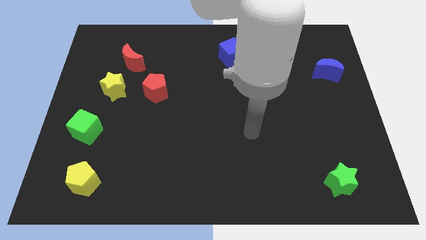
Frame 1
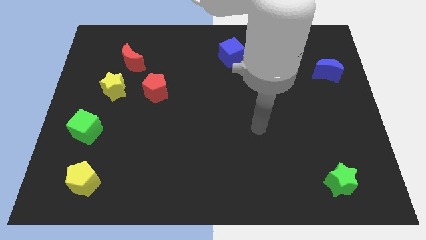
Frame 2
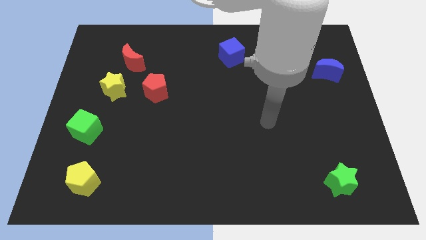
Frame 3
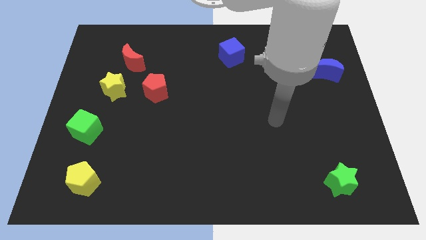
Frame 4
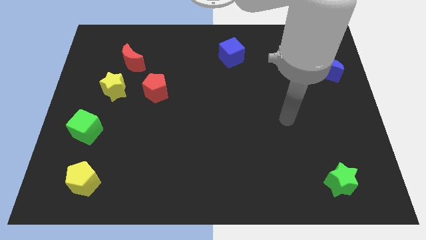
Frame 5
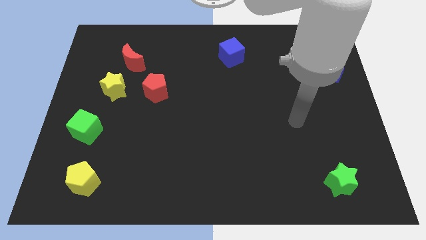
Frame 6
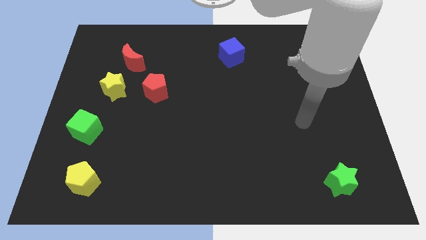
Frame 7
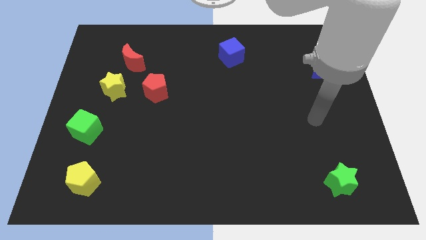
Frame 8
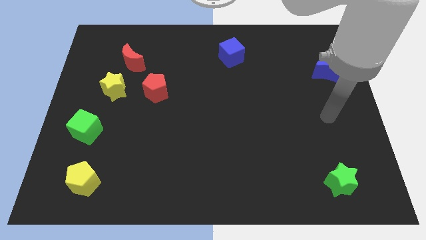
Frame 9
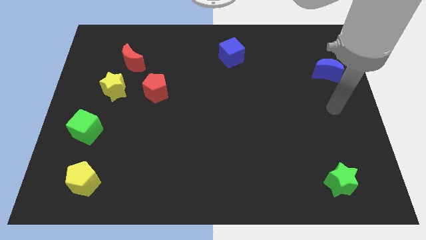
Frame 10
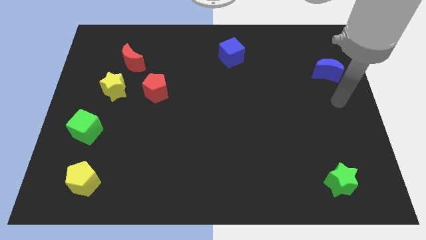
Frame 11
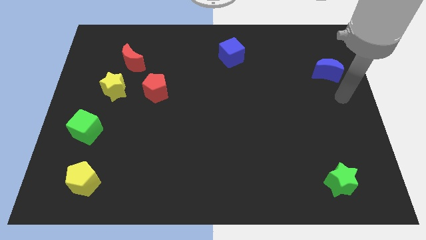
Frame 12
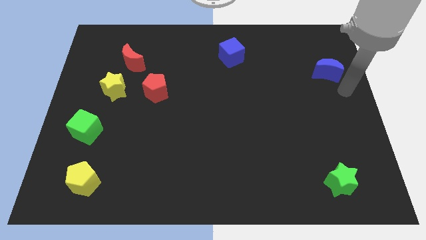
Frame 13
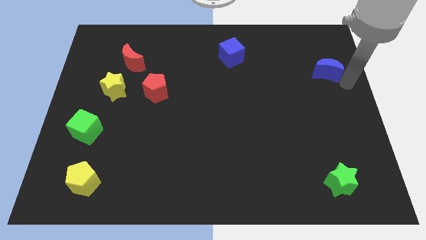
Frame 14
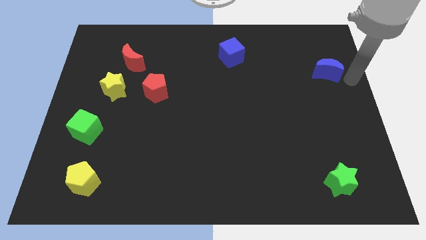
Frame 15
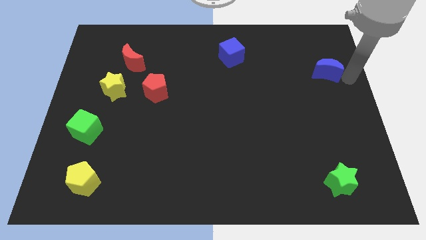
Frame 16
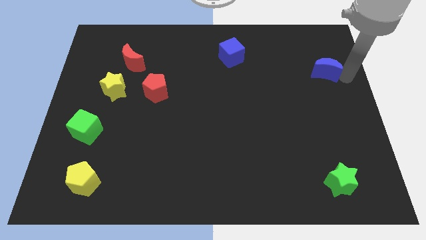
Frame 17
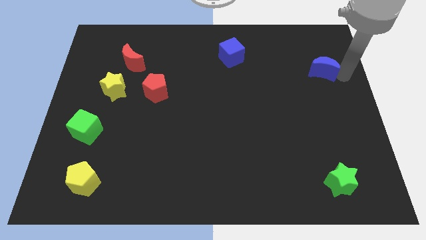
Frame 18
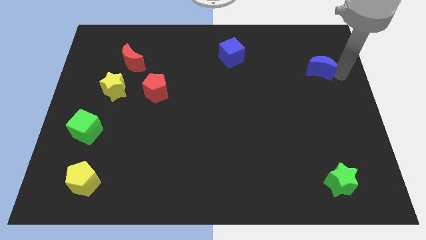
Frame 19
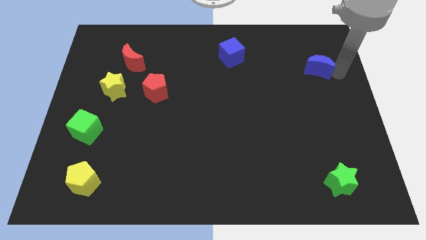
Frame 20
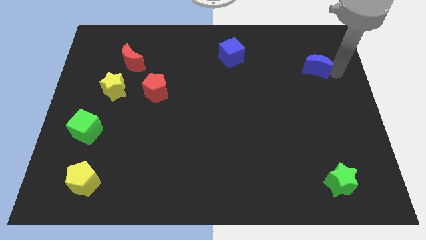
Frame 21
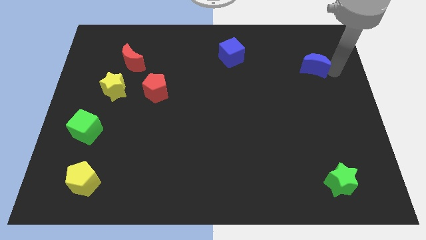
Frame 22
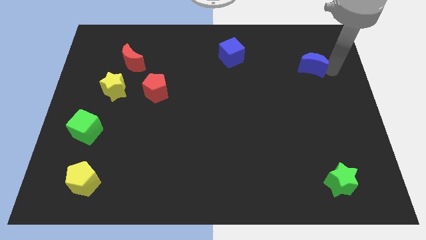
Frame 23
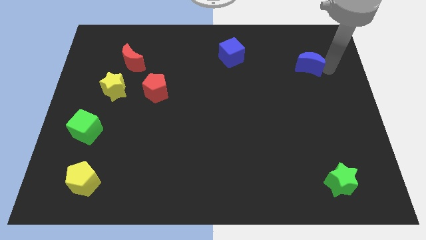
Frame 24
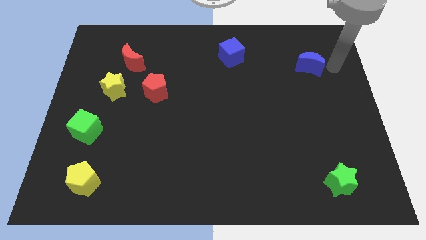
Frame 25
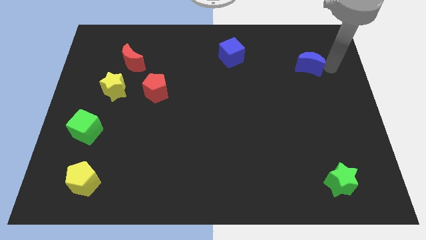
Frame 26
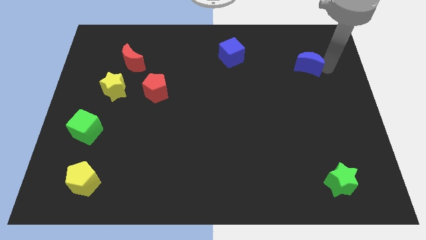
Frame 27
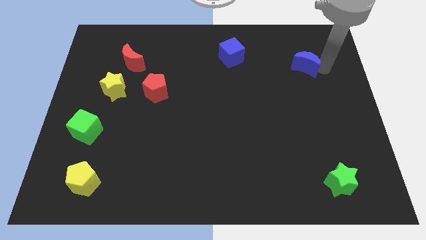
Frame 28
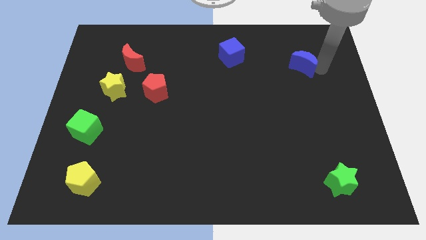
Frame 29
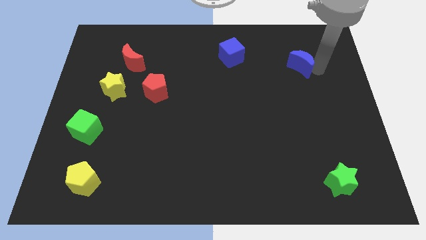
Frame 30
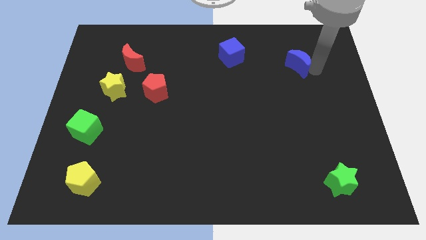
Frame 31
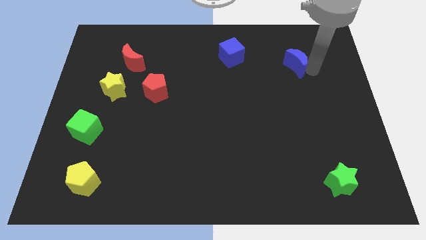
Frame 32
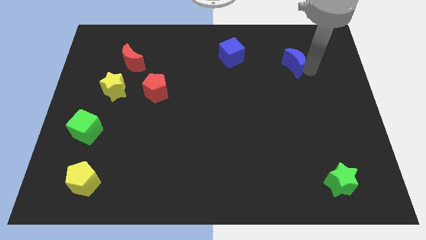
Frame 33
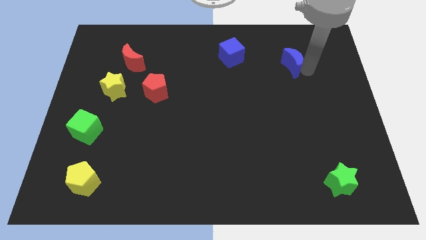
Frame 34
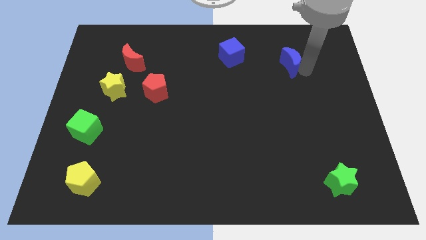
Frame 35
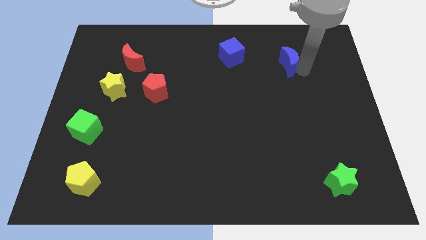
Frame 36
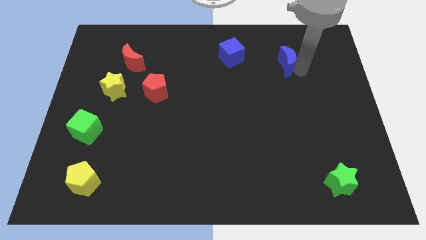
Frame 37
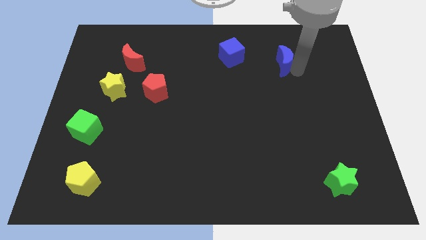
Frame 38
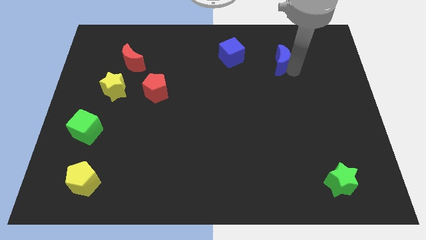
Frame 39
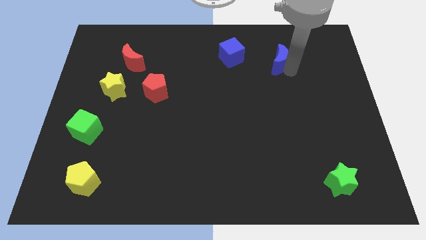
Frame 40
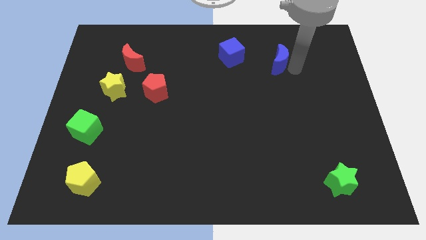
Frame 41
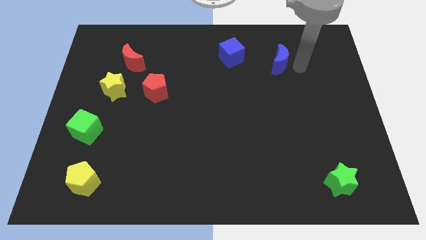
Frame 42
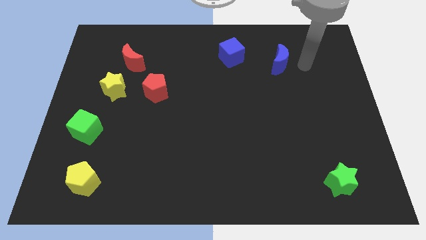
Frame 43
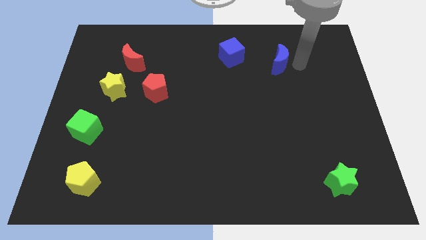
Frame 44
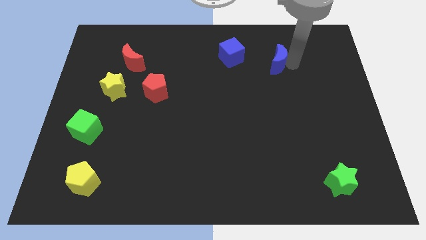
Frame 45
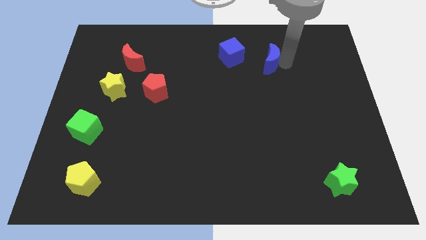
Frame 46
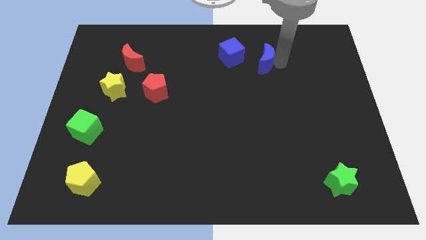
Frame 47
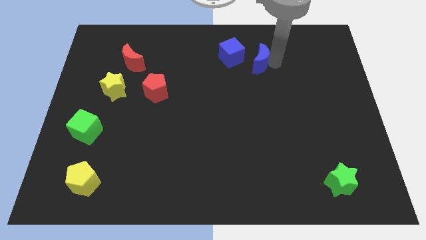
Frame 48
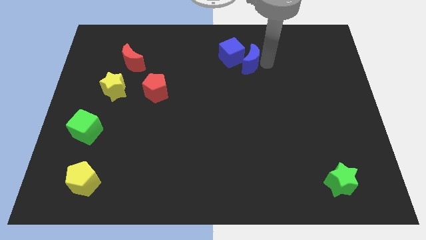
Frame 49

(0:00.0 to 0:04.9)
push the blue moon towards the blue cube

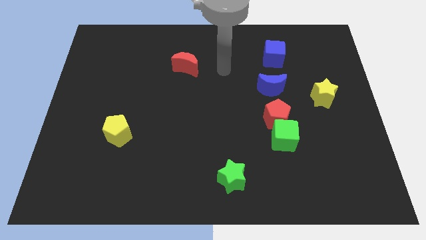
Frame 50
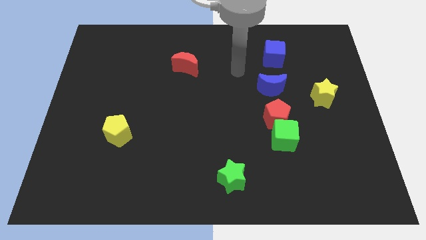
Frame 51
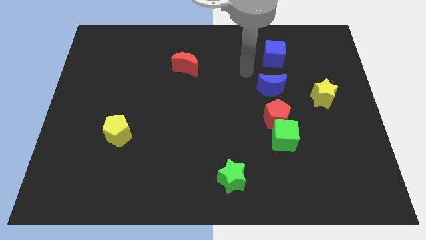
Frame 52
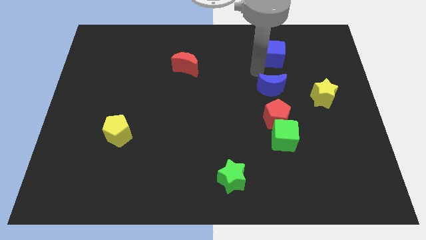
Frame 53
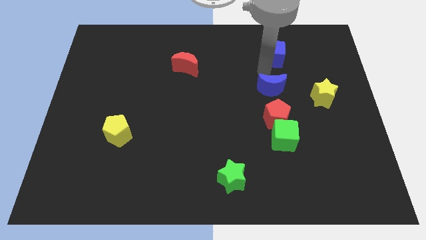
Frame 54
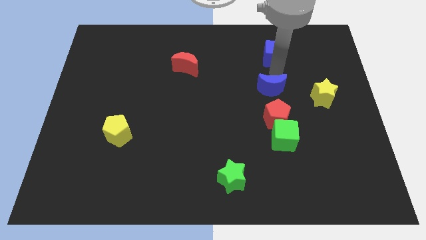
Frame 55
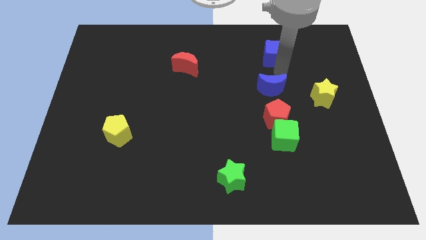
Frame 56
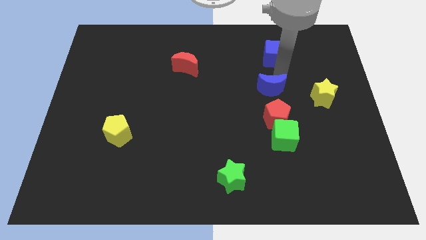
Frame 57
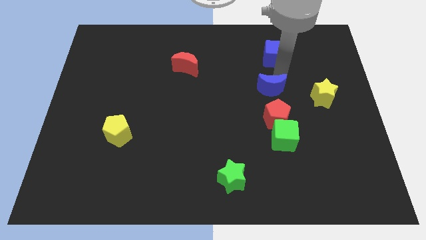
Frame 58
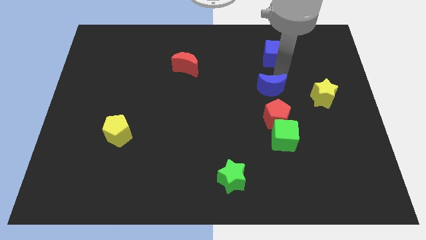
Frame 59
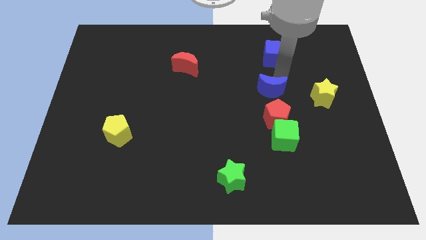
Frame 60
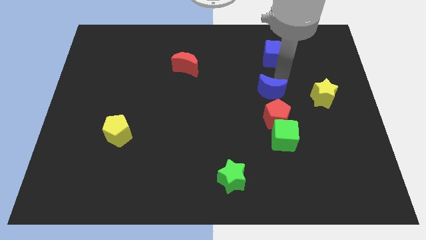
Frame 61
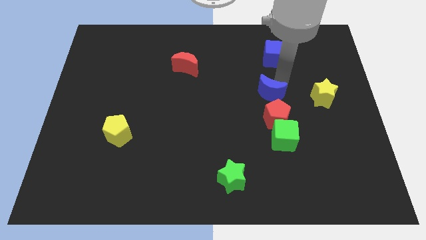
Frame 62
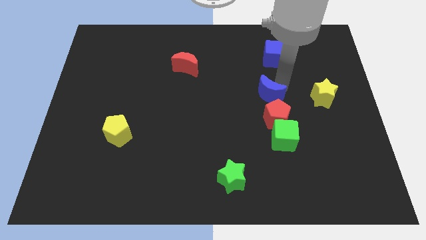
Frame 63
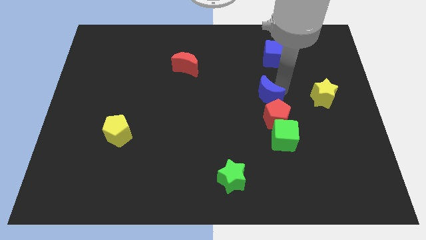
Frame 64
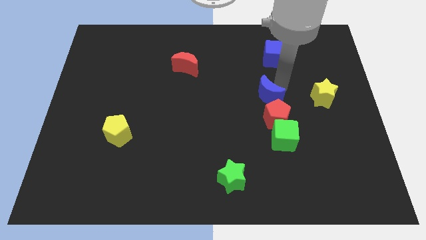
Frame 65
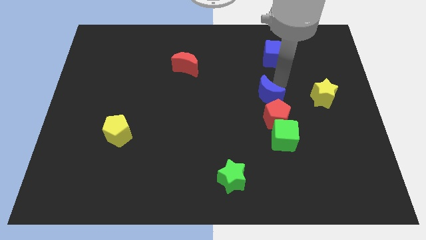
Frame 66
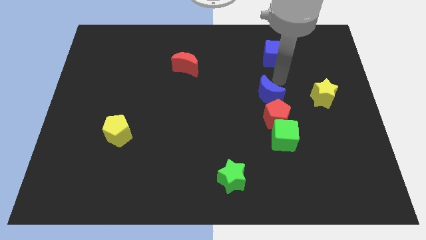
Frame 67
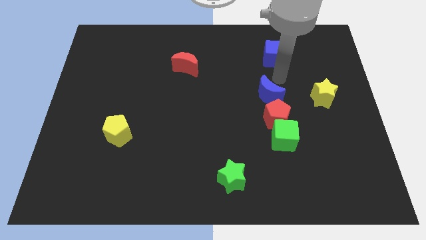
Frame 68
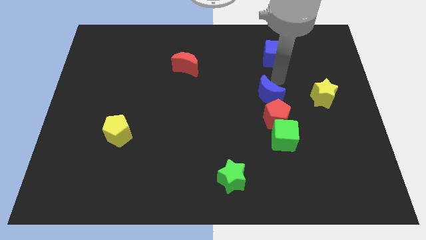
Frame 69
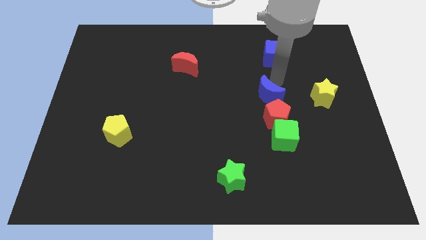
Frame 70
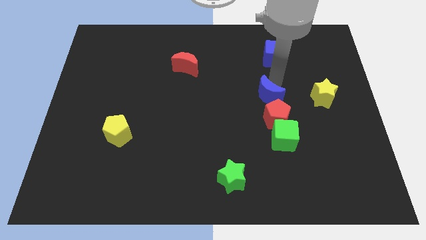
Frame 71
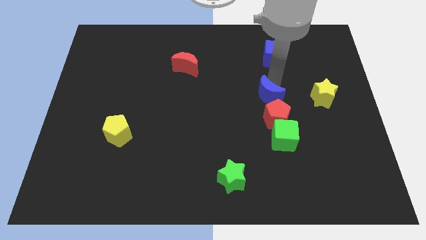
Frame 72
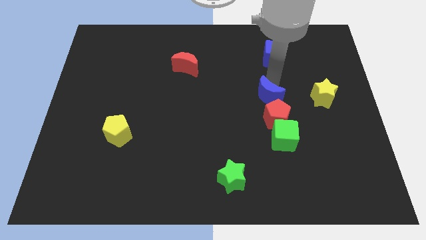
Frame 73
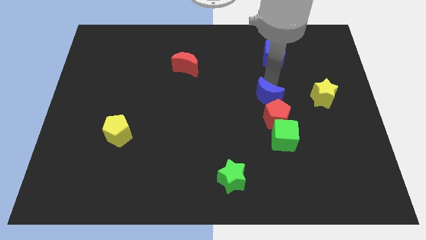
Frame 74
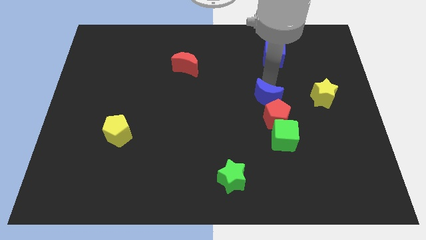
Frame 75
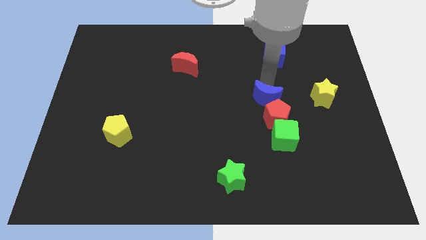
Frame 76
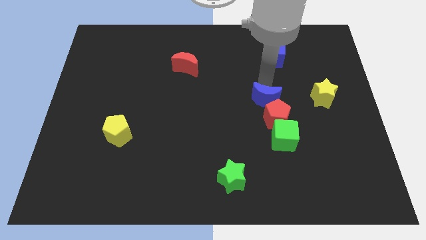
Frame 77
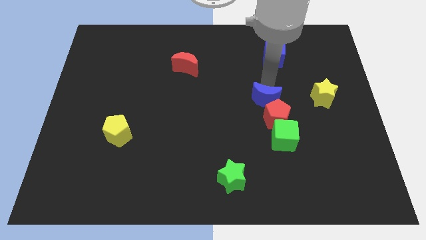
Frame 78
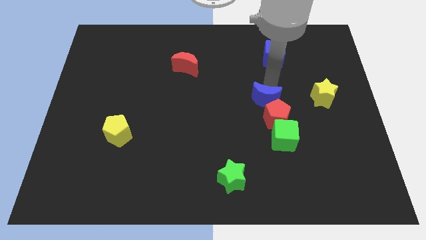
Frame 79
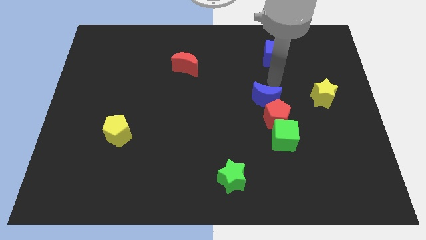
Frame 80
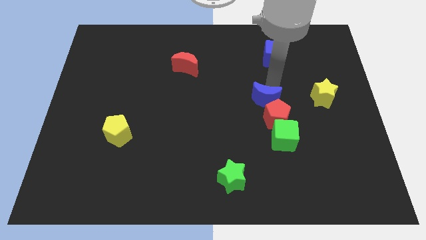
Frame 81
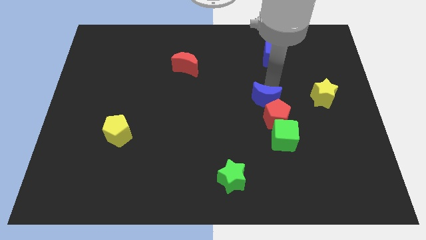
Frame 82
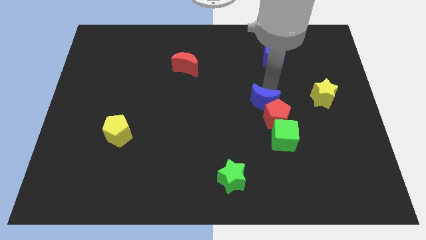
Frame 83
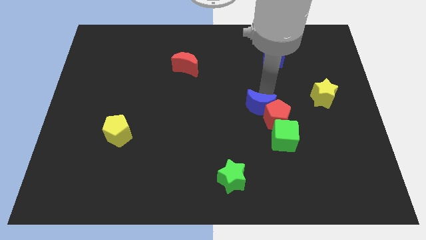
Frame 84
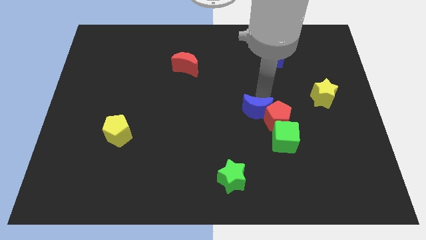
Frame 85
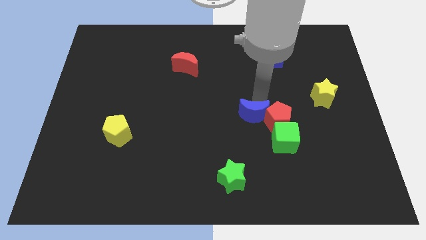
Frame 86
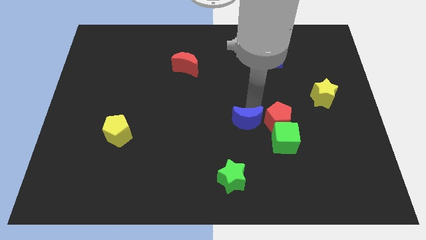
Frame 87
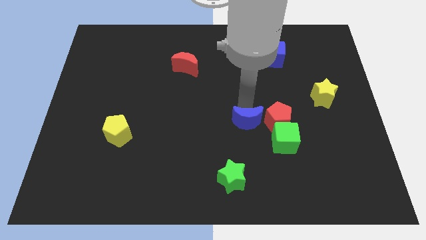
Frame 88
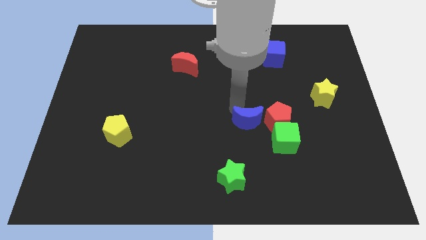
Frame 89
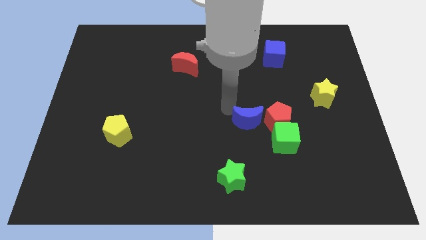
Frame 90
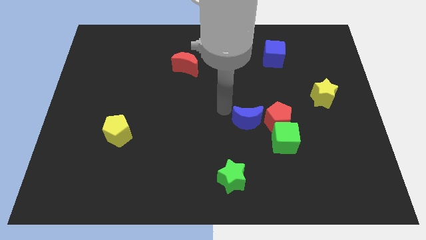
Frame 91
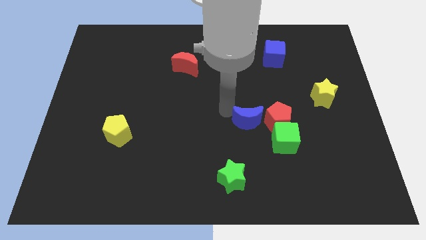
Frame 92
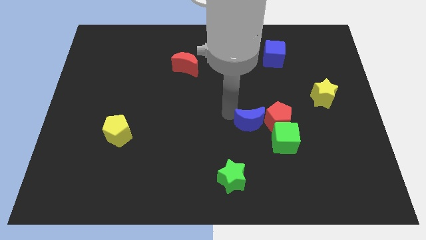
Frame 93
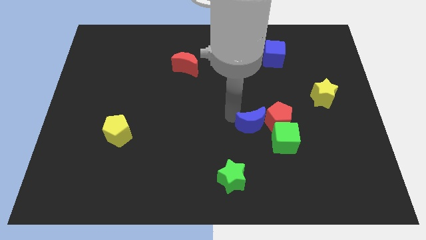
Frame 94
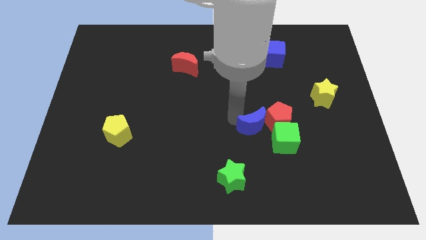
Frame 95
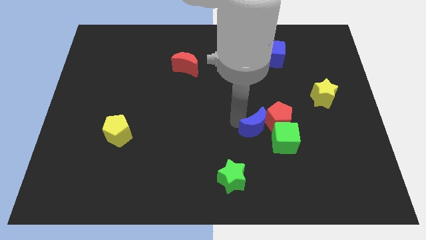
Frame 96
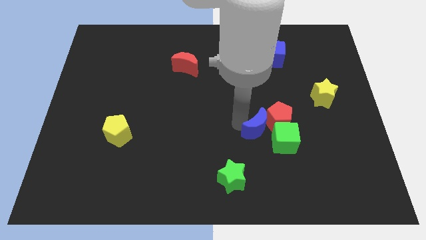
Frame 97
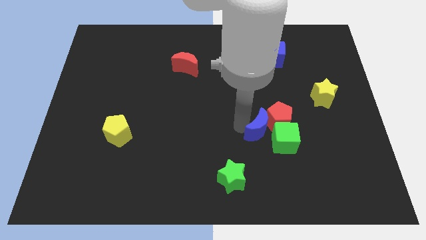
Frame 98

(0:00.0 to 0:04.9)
slide the blue moon towards the green cube
